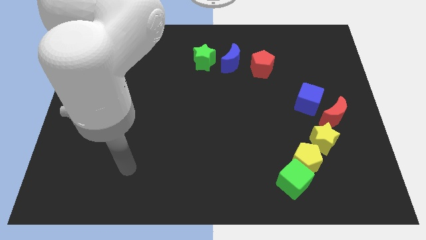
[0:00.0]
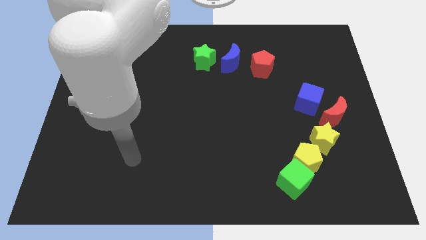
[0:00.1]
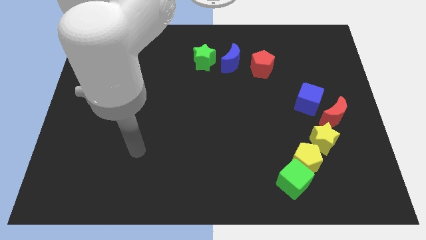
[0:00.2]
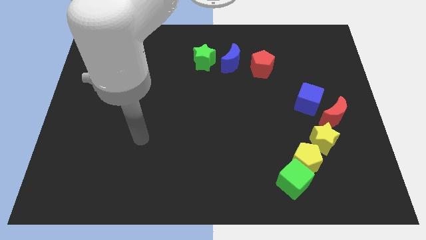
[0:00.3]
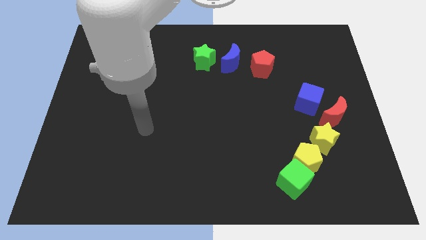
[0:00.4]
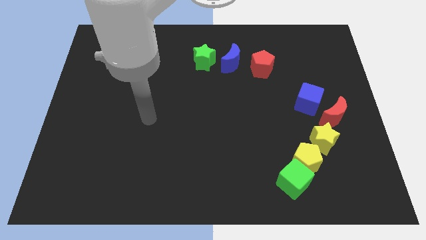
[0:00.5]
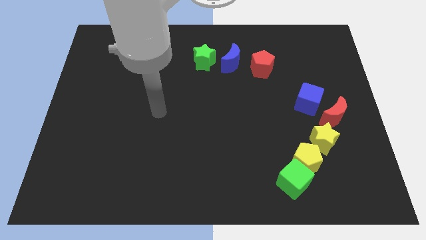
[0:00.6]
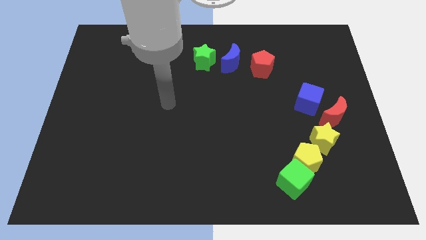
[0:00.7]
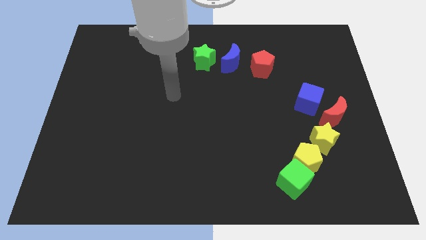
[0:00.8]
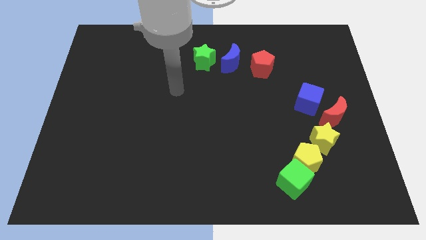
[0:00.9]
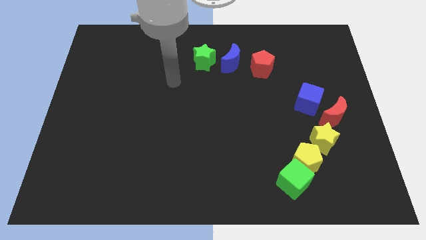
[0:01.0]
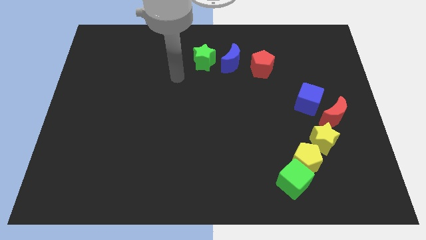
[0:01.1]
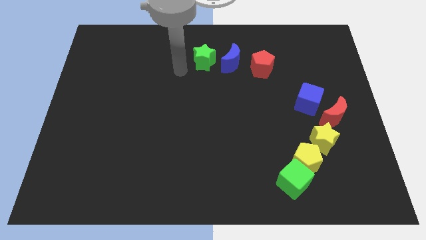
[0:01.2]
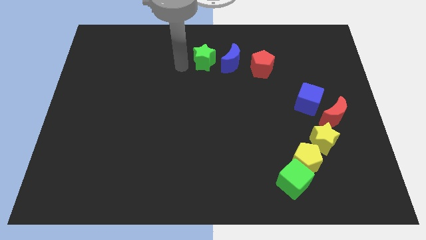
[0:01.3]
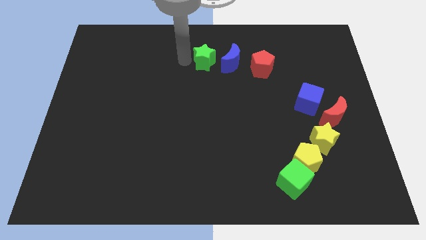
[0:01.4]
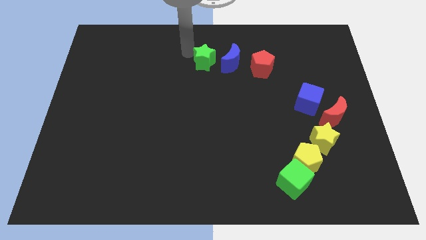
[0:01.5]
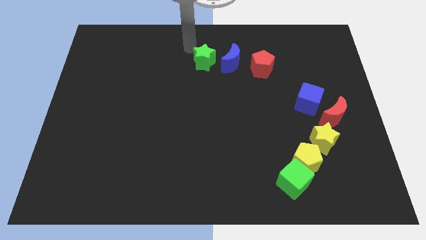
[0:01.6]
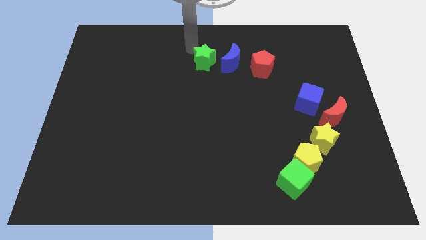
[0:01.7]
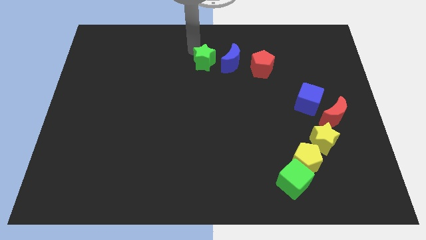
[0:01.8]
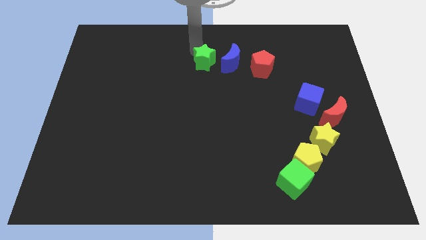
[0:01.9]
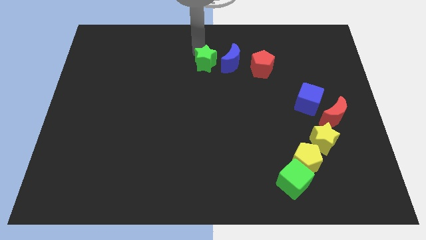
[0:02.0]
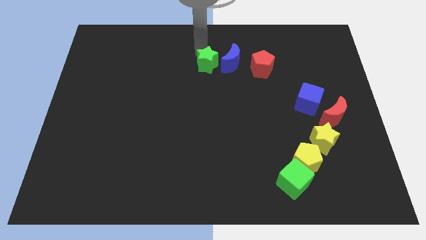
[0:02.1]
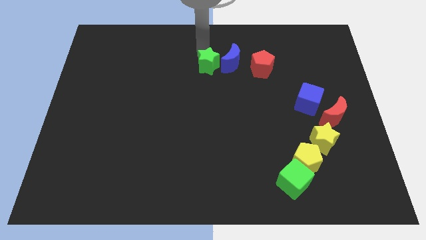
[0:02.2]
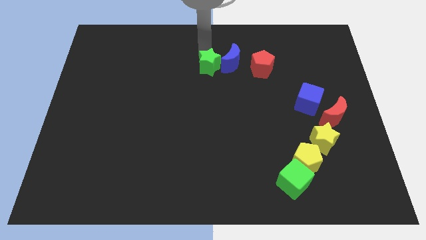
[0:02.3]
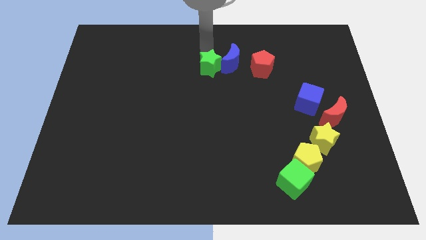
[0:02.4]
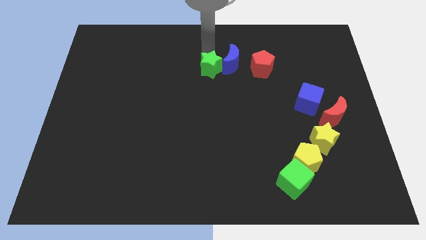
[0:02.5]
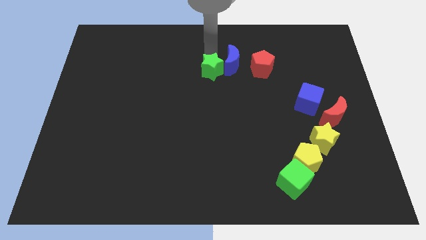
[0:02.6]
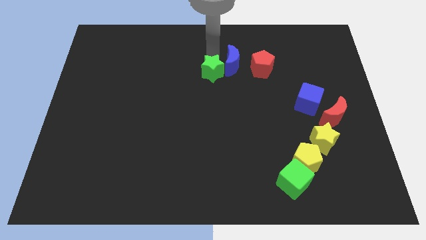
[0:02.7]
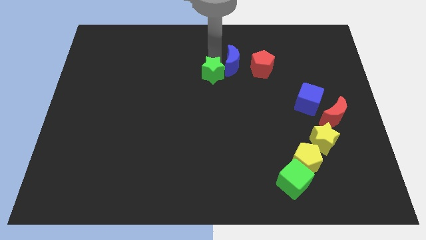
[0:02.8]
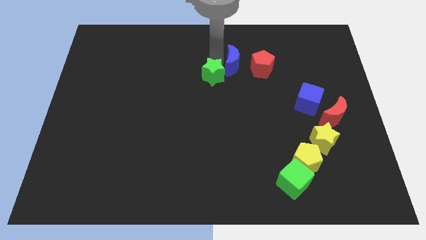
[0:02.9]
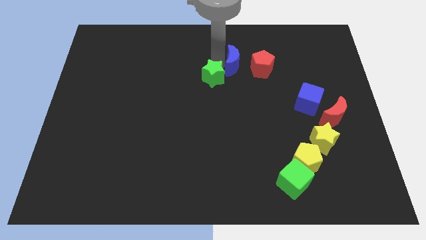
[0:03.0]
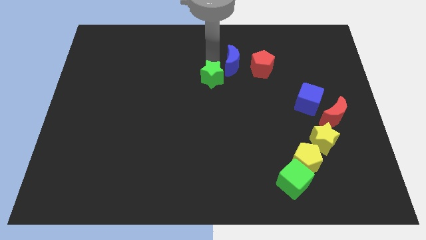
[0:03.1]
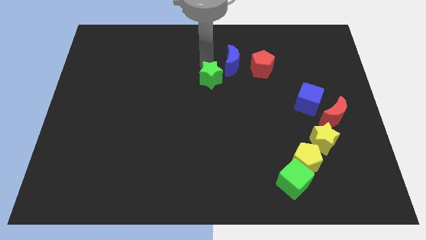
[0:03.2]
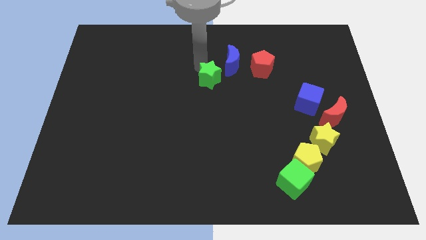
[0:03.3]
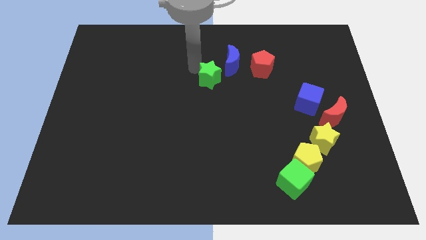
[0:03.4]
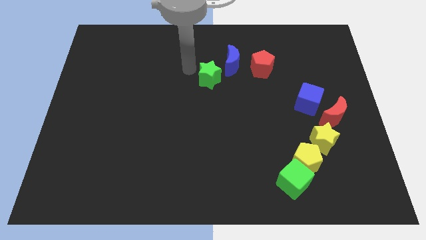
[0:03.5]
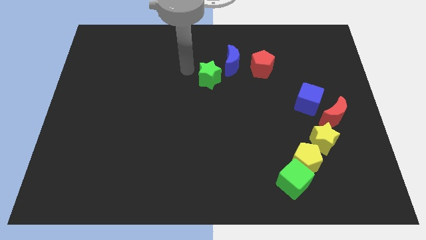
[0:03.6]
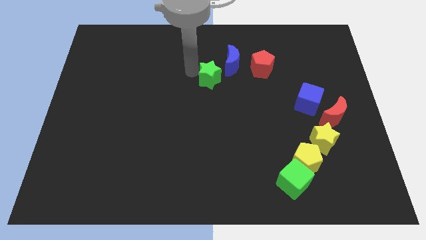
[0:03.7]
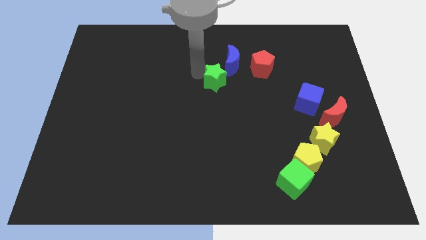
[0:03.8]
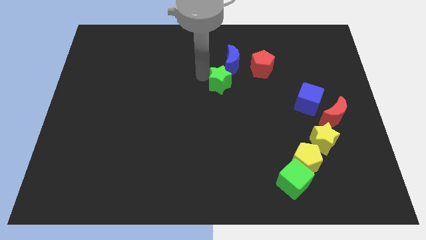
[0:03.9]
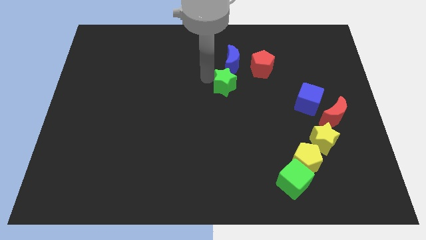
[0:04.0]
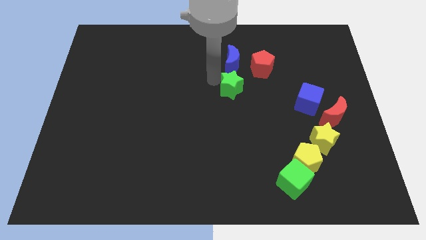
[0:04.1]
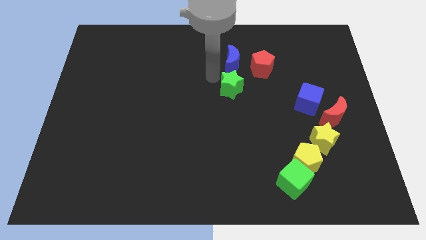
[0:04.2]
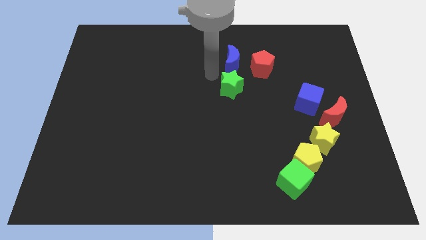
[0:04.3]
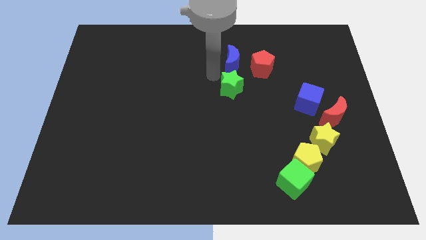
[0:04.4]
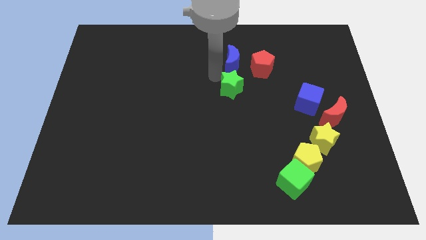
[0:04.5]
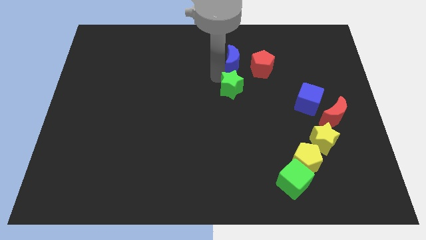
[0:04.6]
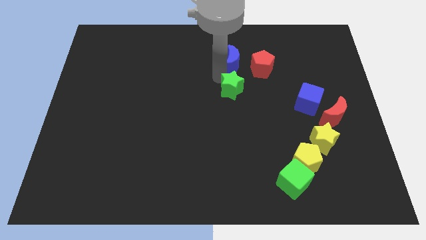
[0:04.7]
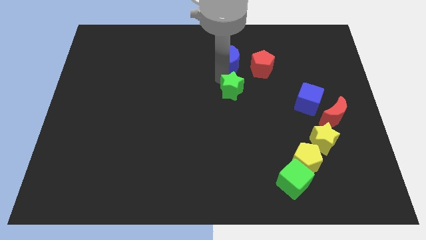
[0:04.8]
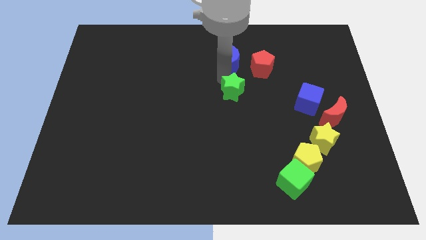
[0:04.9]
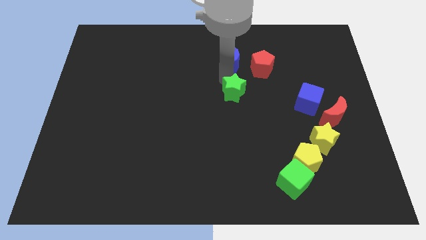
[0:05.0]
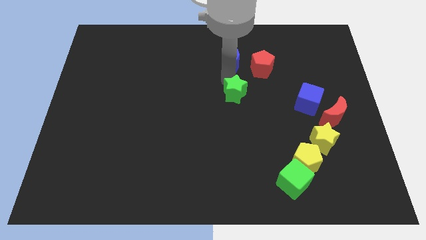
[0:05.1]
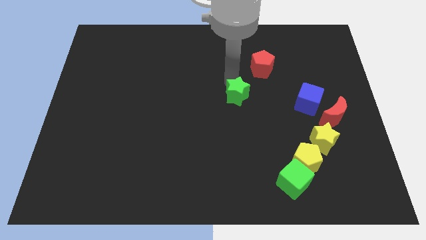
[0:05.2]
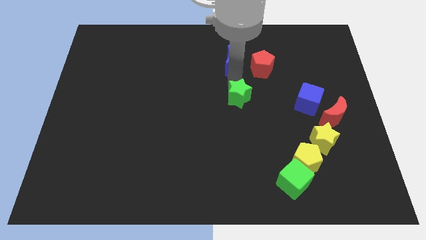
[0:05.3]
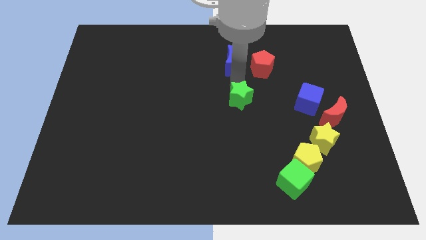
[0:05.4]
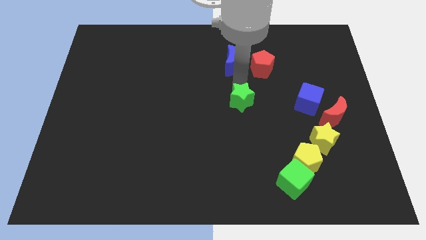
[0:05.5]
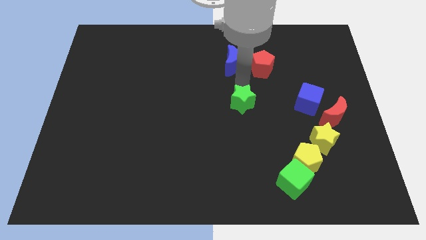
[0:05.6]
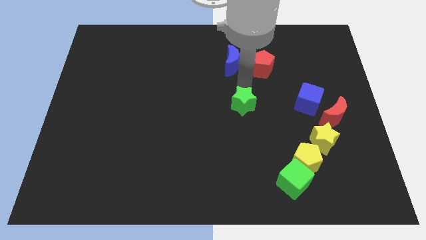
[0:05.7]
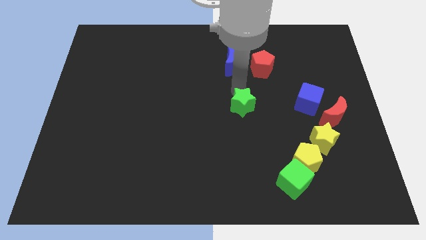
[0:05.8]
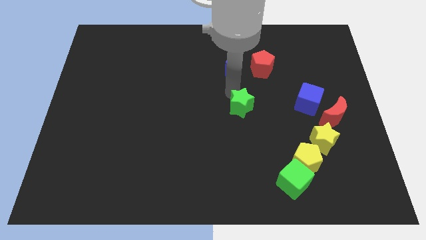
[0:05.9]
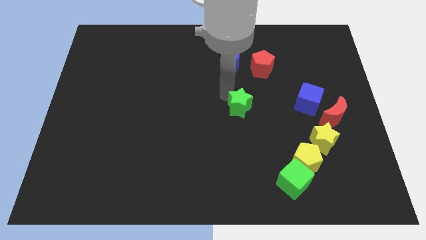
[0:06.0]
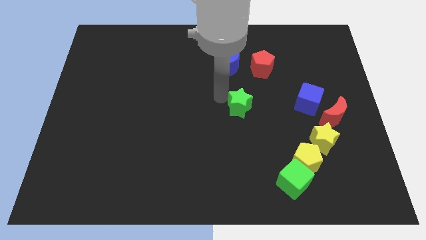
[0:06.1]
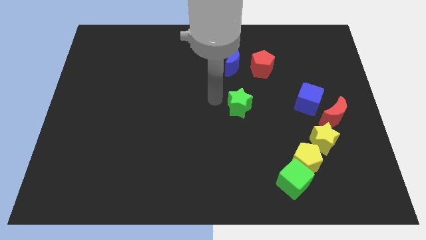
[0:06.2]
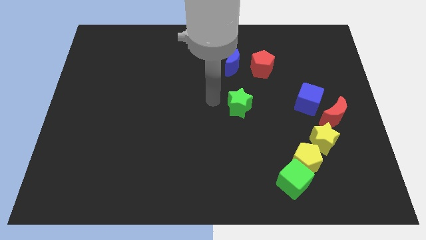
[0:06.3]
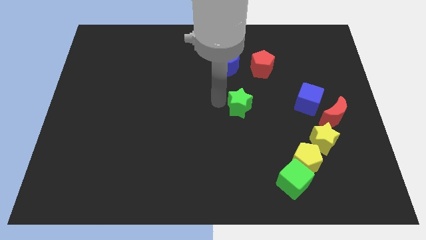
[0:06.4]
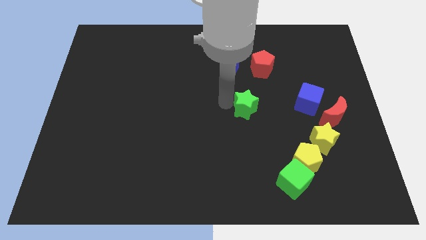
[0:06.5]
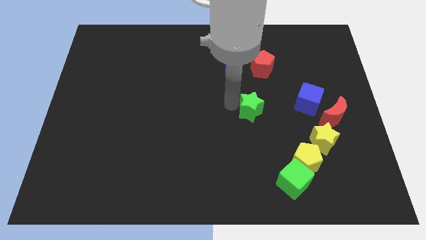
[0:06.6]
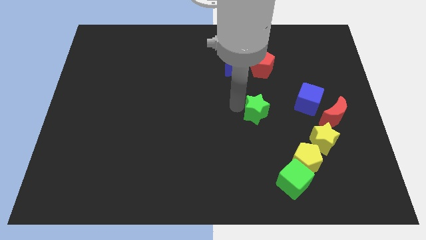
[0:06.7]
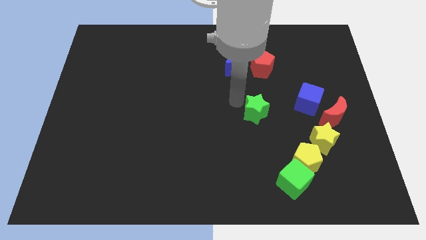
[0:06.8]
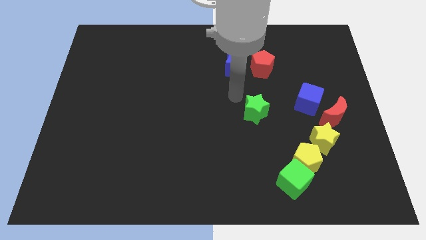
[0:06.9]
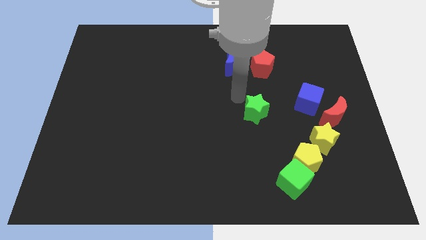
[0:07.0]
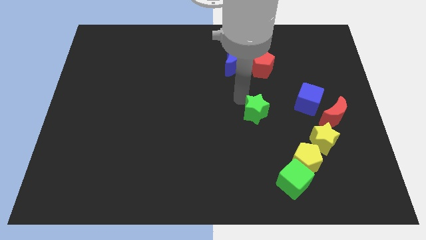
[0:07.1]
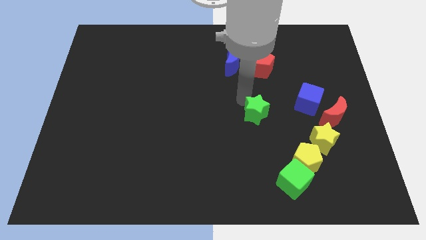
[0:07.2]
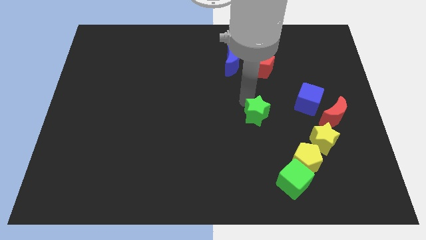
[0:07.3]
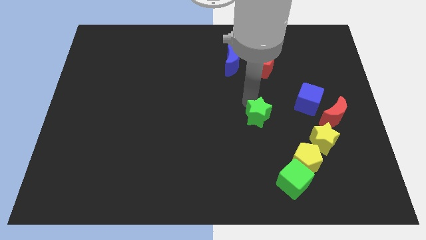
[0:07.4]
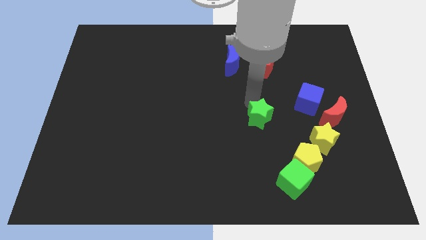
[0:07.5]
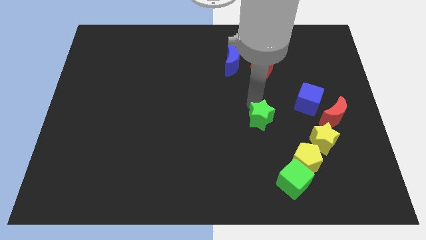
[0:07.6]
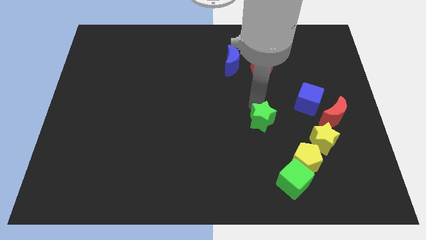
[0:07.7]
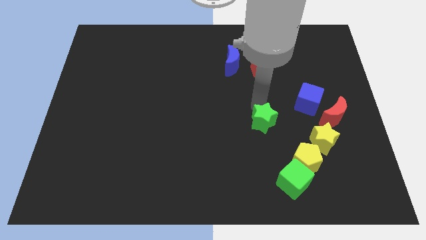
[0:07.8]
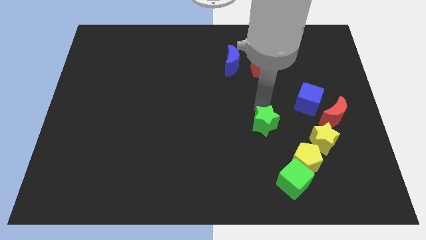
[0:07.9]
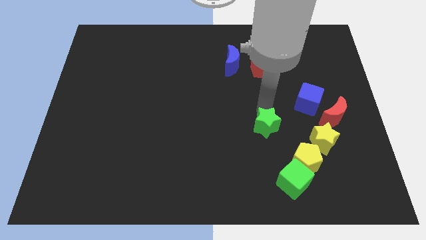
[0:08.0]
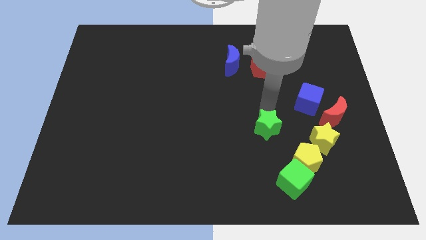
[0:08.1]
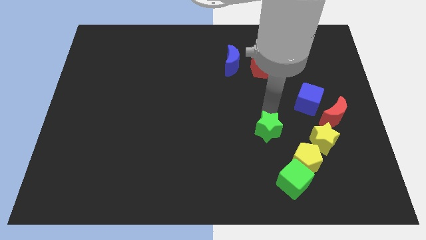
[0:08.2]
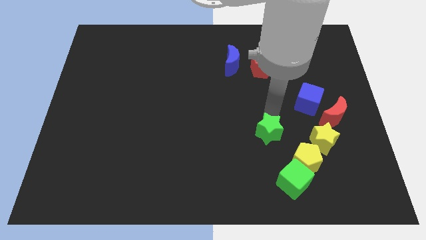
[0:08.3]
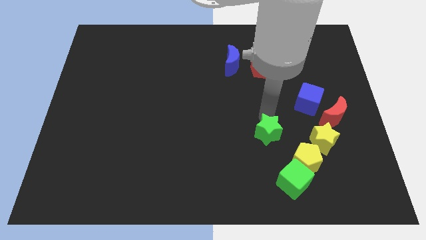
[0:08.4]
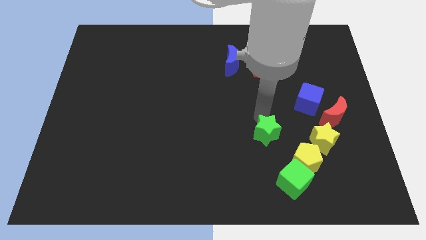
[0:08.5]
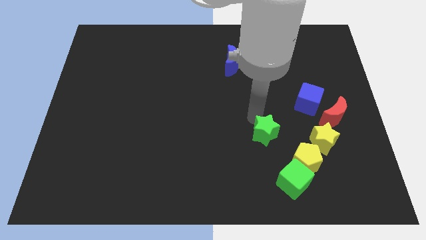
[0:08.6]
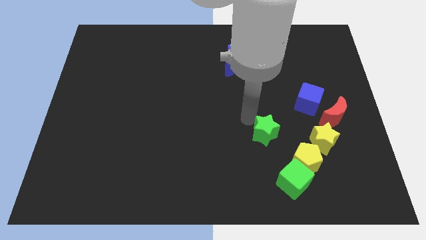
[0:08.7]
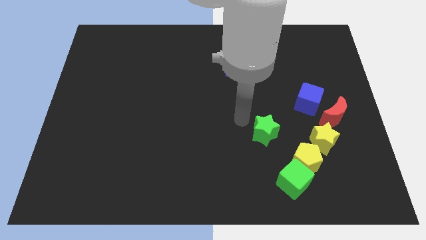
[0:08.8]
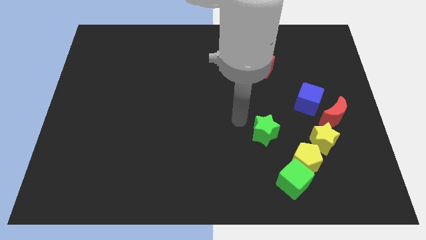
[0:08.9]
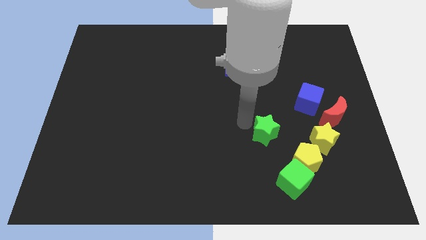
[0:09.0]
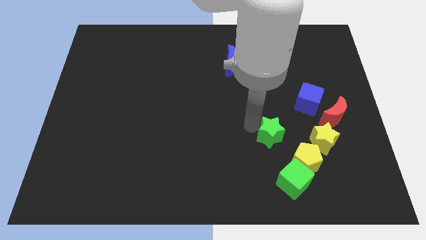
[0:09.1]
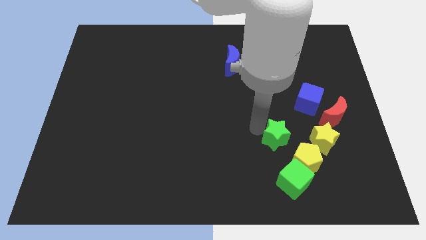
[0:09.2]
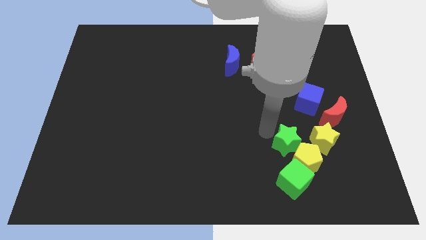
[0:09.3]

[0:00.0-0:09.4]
move the green star to the yellow pentagon
